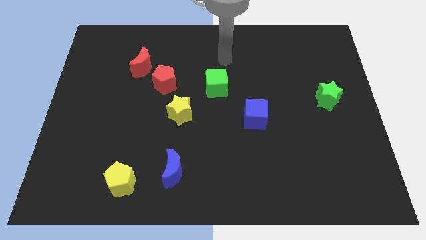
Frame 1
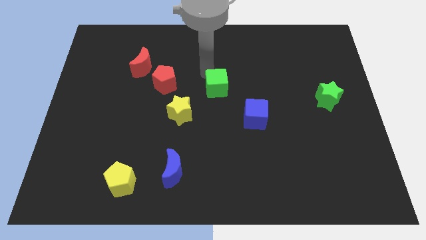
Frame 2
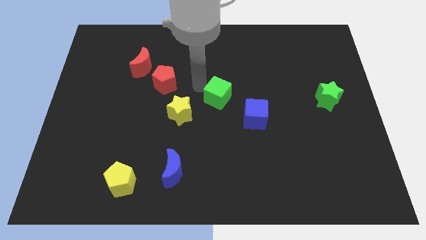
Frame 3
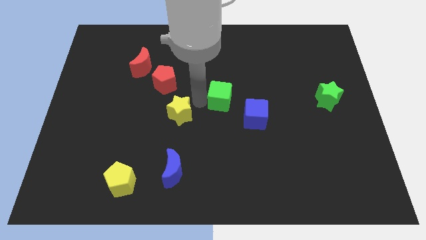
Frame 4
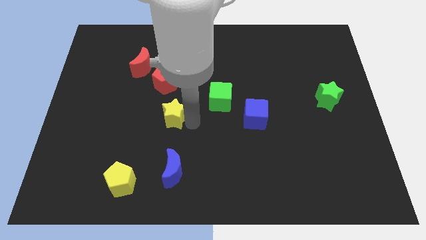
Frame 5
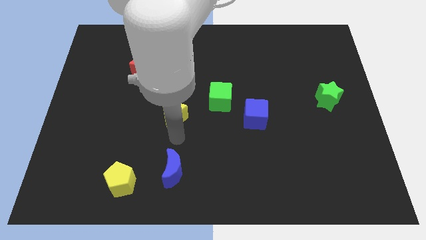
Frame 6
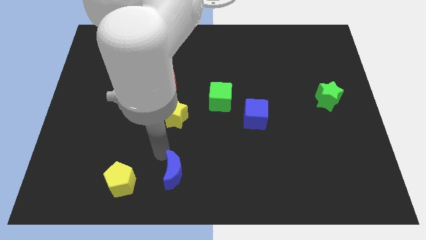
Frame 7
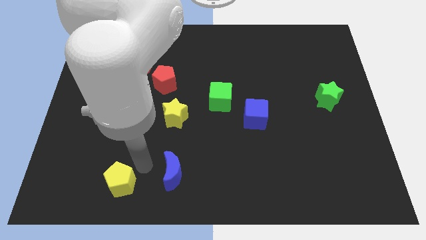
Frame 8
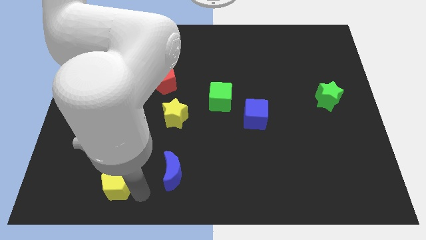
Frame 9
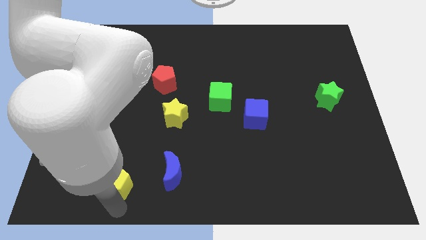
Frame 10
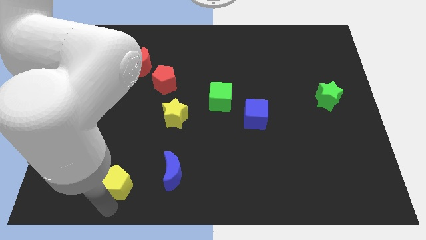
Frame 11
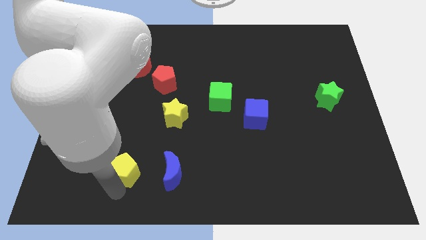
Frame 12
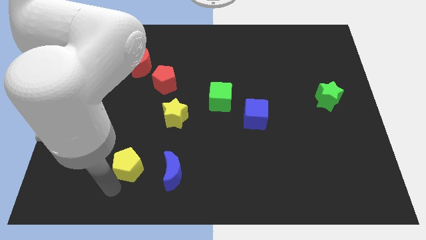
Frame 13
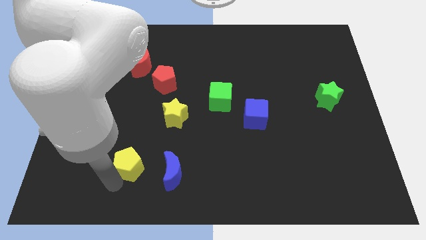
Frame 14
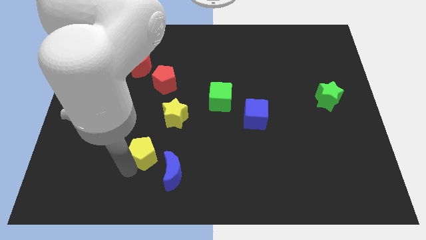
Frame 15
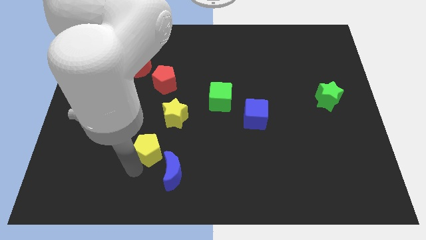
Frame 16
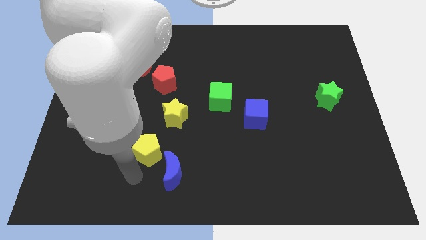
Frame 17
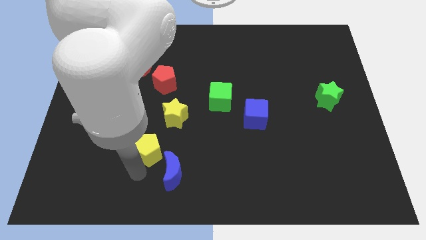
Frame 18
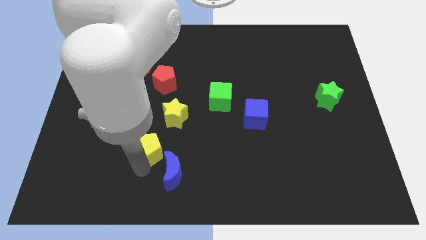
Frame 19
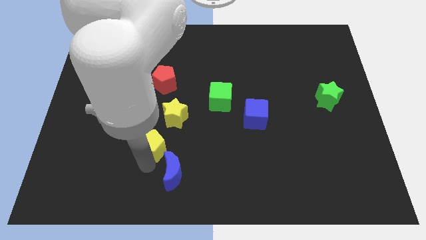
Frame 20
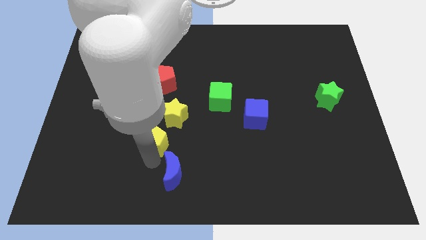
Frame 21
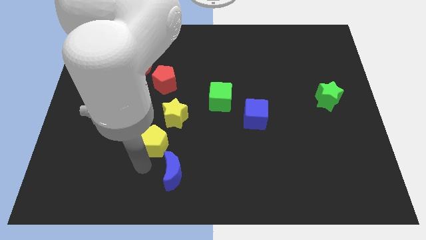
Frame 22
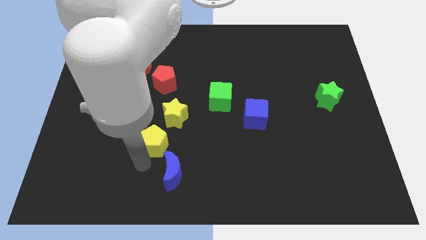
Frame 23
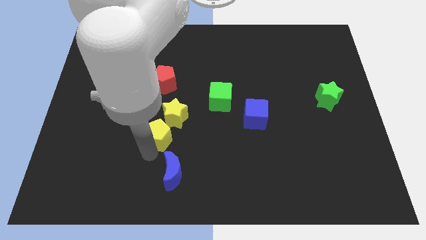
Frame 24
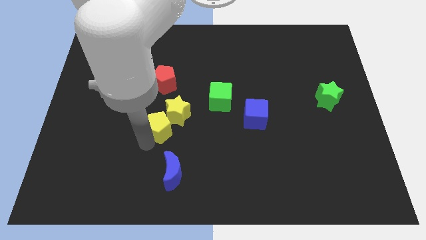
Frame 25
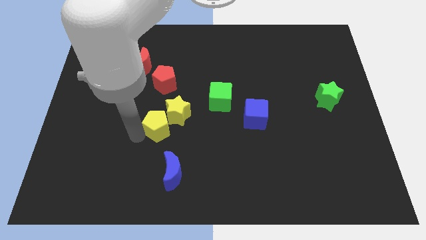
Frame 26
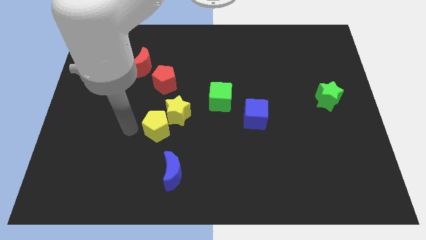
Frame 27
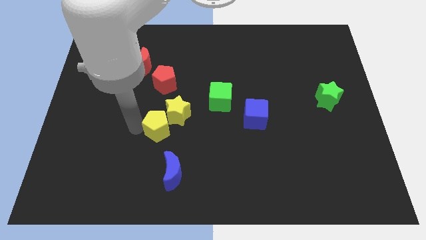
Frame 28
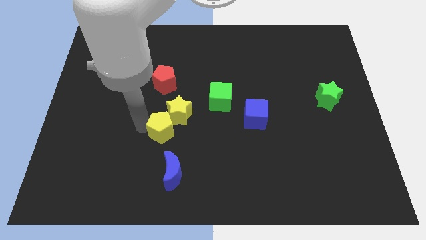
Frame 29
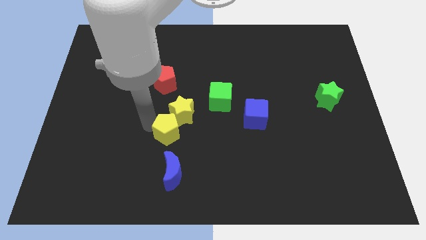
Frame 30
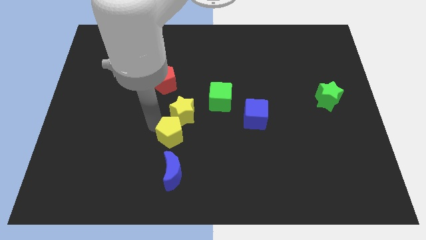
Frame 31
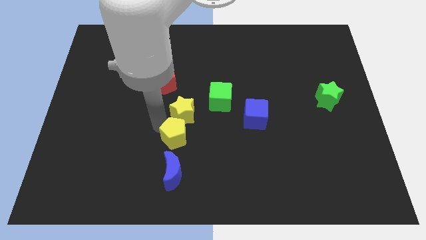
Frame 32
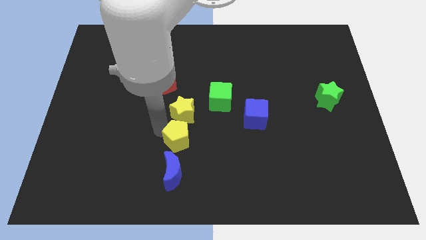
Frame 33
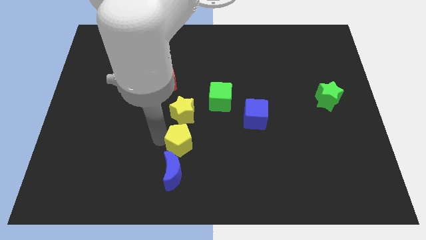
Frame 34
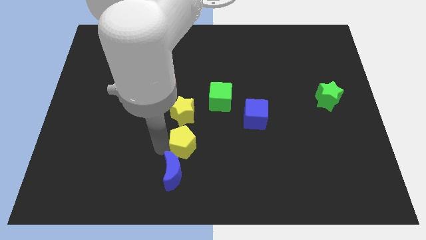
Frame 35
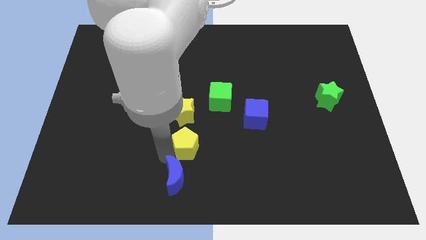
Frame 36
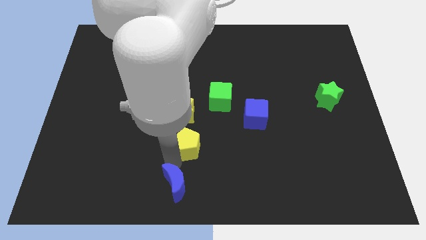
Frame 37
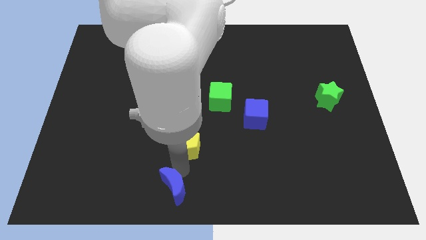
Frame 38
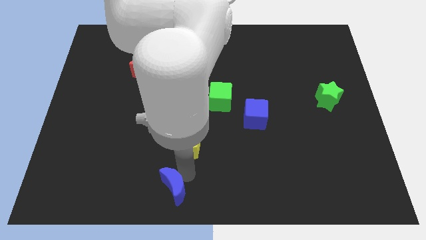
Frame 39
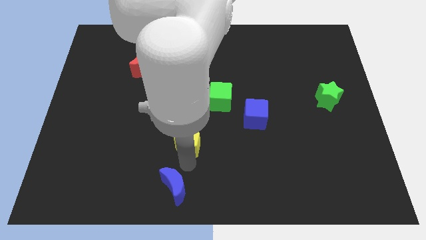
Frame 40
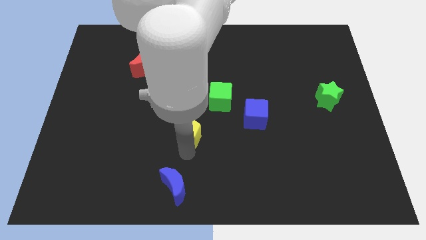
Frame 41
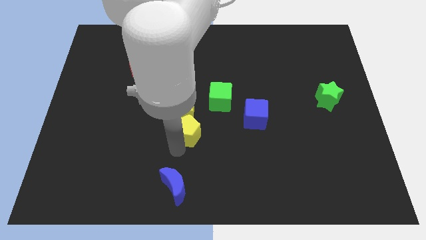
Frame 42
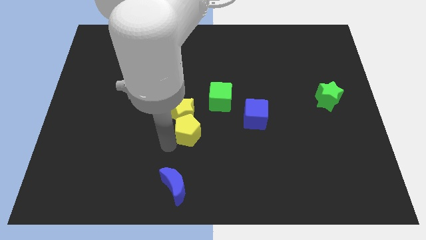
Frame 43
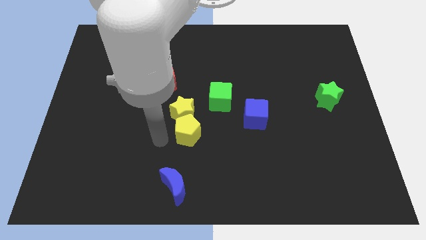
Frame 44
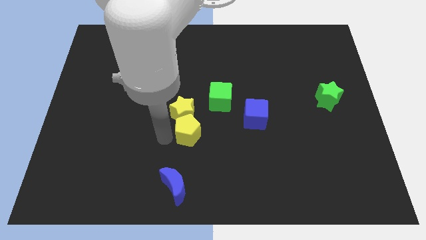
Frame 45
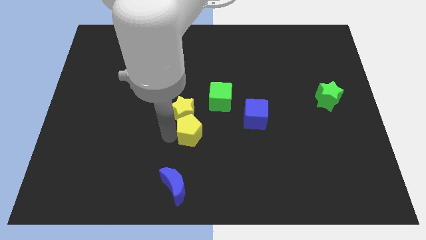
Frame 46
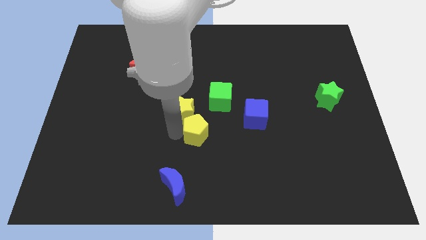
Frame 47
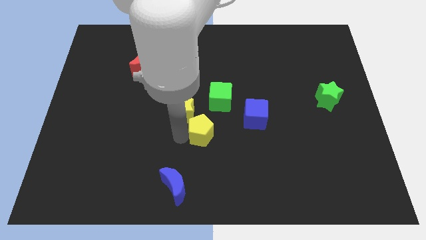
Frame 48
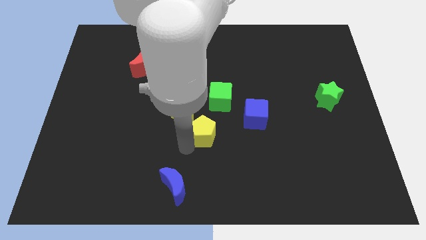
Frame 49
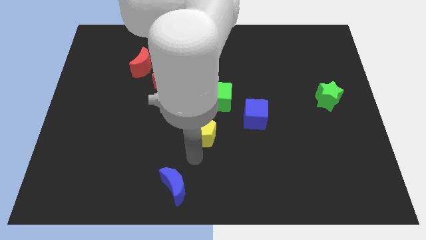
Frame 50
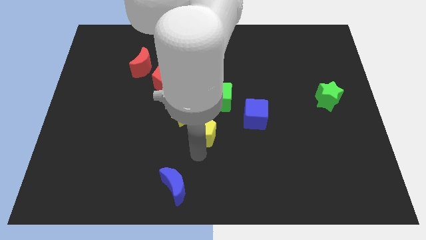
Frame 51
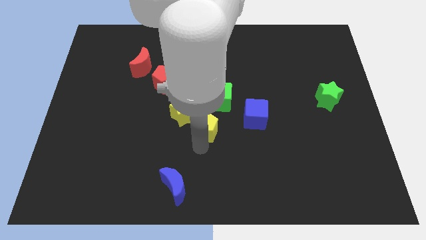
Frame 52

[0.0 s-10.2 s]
slide the yellow pentagon up and right

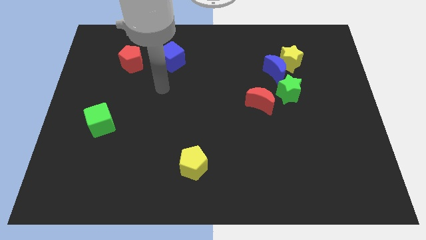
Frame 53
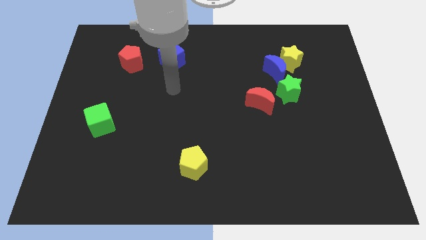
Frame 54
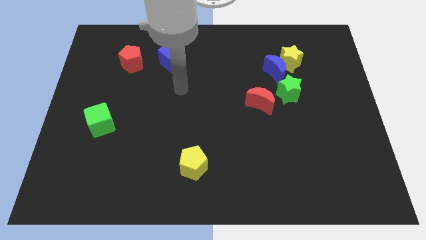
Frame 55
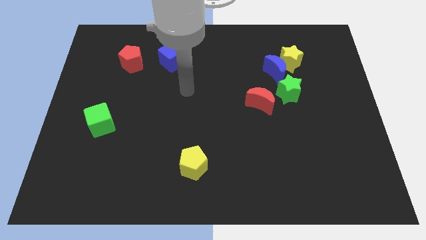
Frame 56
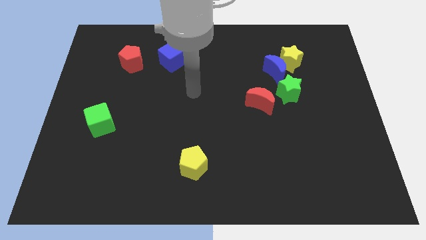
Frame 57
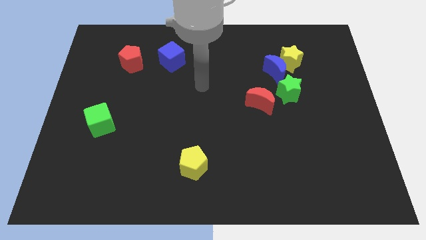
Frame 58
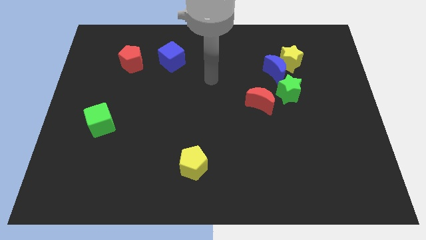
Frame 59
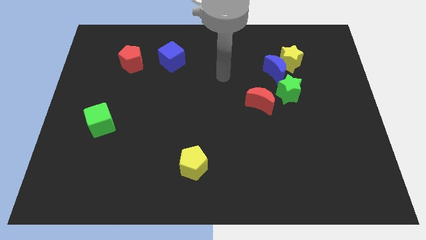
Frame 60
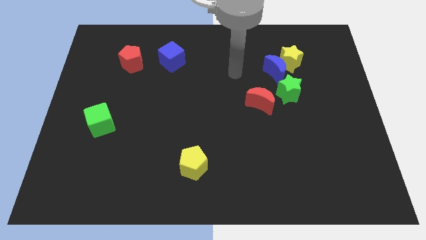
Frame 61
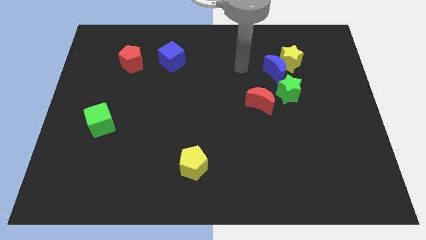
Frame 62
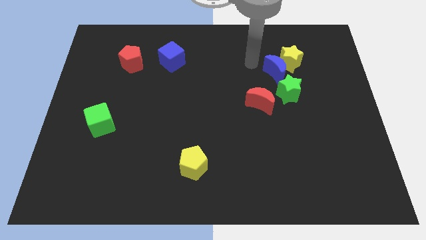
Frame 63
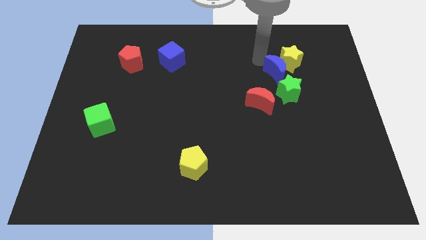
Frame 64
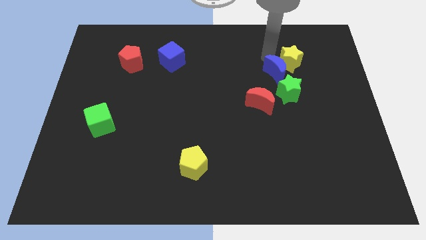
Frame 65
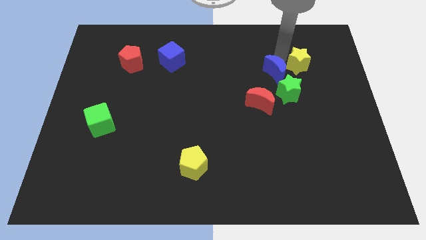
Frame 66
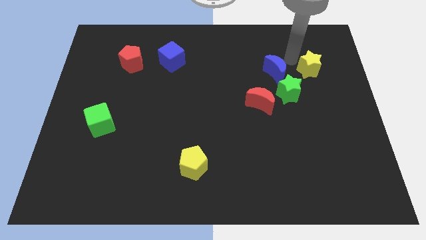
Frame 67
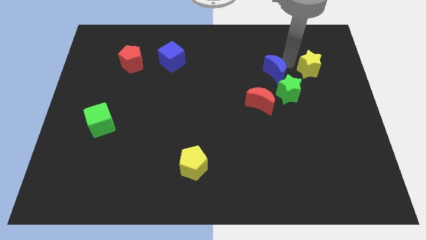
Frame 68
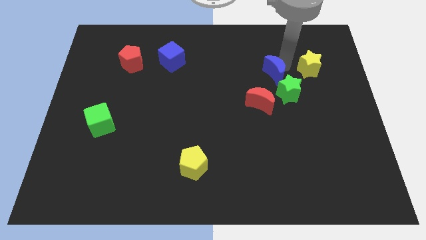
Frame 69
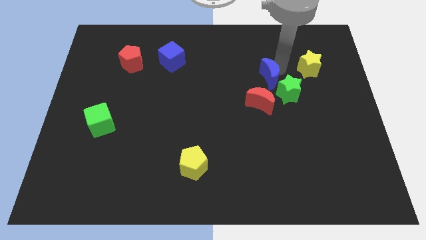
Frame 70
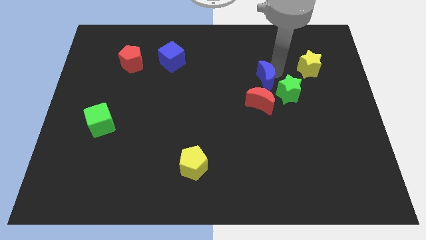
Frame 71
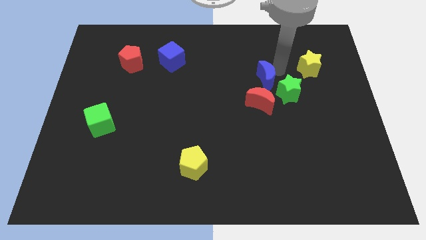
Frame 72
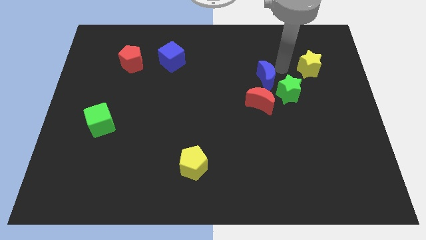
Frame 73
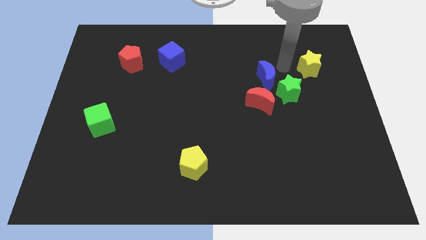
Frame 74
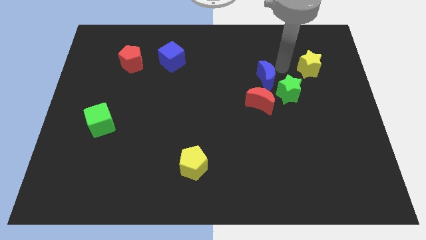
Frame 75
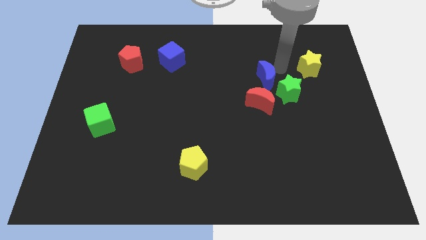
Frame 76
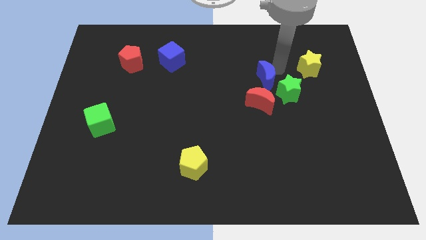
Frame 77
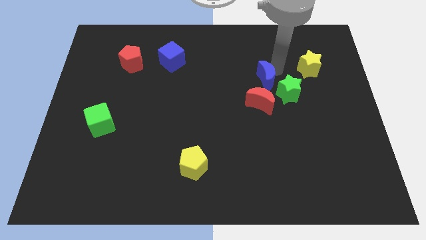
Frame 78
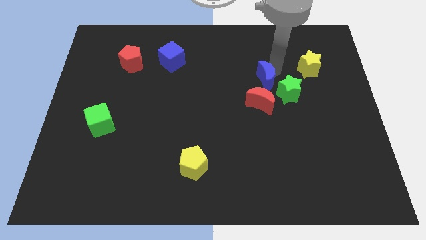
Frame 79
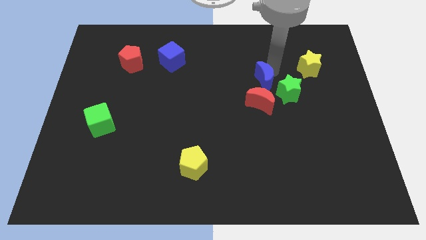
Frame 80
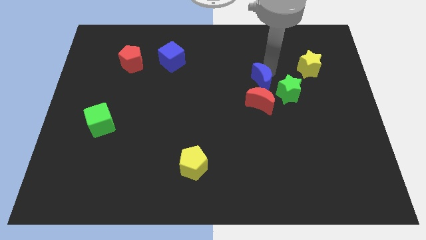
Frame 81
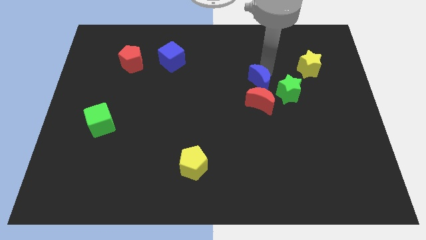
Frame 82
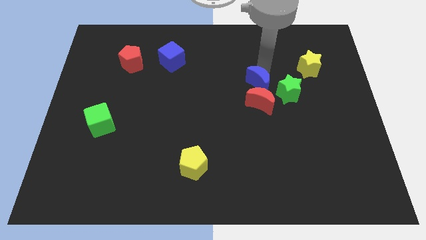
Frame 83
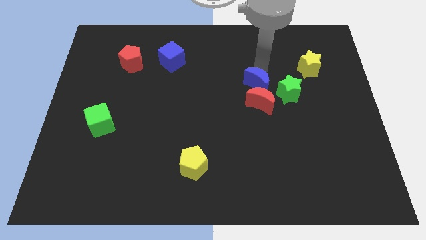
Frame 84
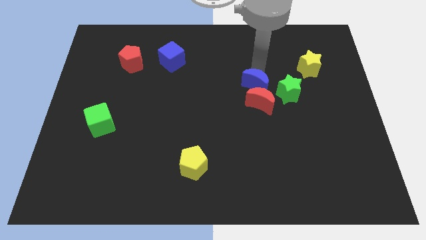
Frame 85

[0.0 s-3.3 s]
move the blue moon diagonally down and to the left a little
